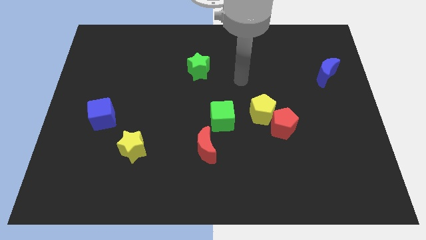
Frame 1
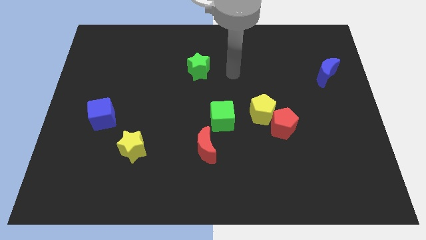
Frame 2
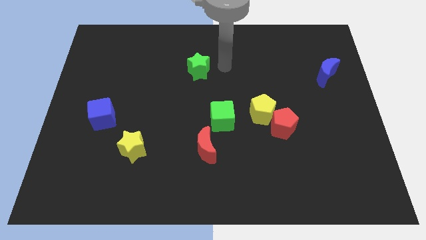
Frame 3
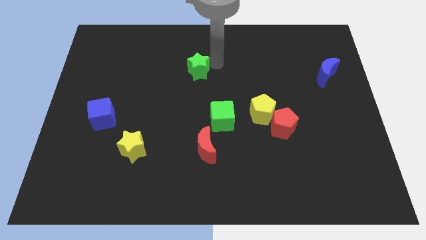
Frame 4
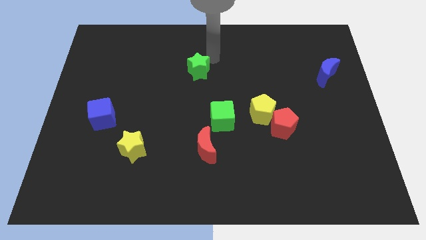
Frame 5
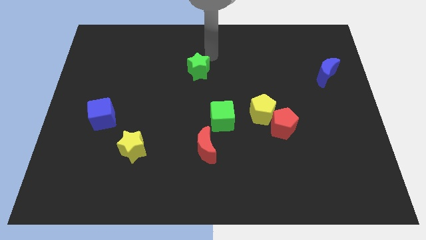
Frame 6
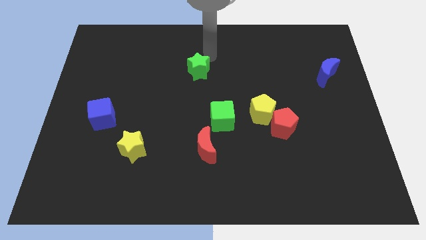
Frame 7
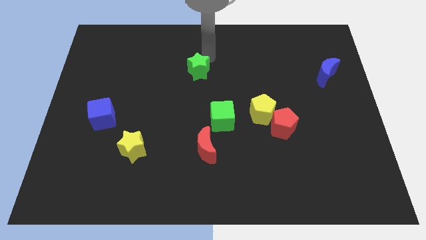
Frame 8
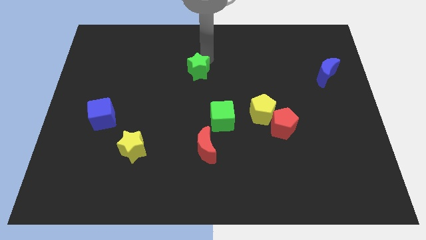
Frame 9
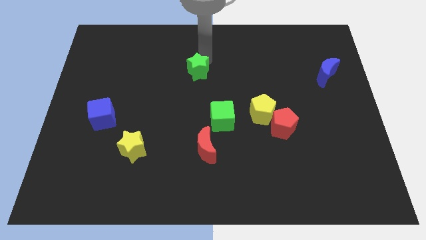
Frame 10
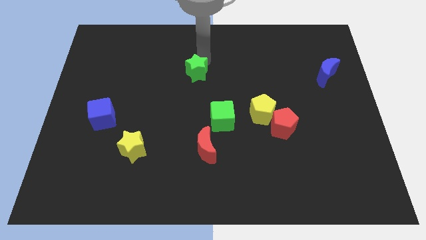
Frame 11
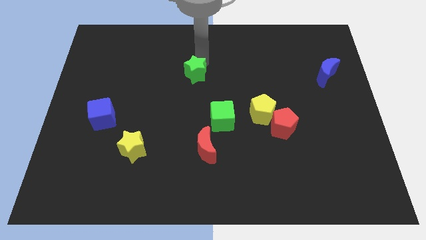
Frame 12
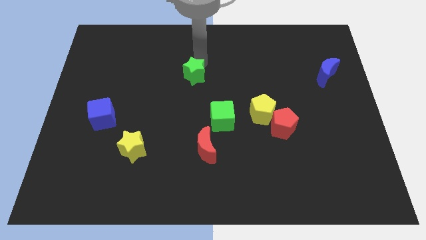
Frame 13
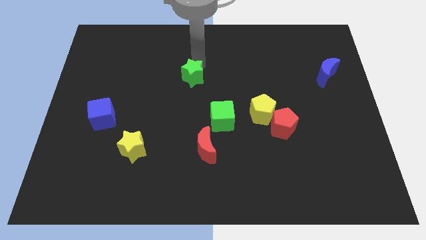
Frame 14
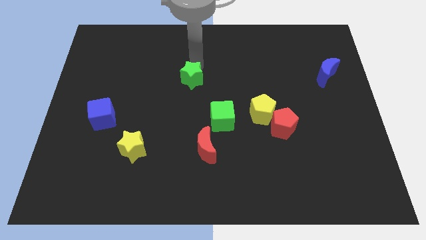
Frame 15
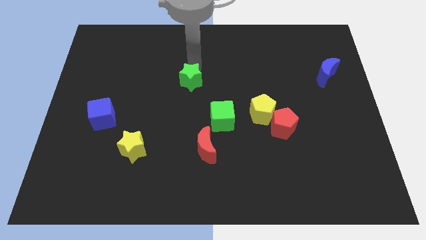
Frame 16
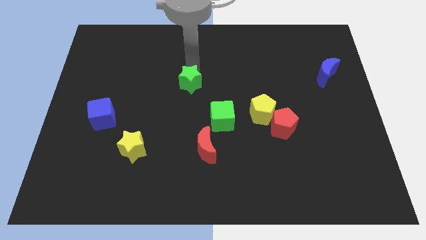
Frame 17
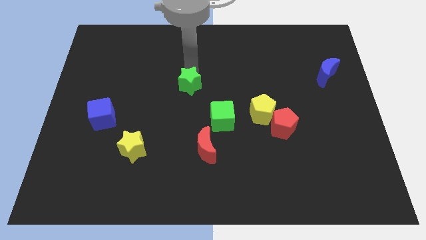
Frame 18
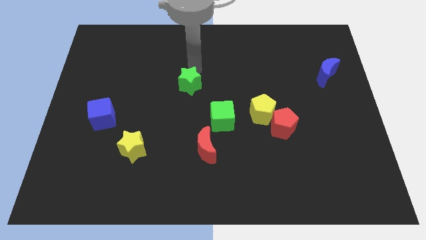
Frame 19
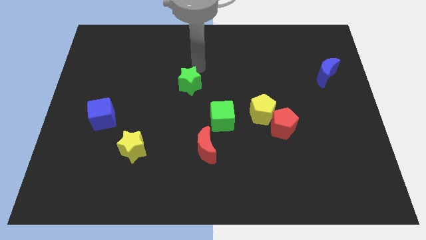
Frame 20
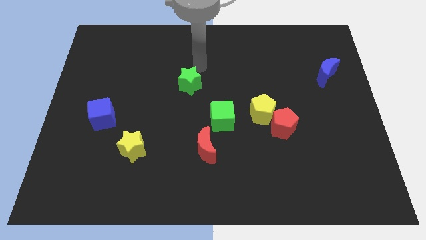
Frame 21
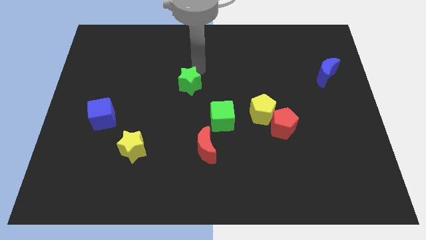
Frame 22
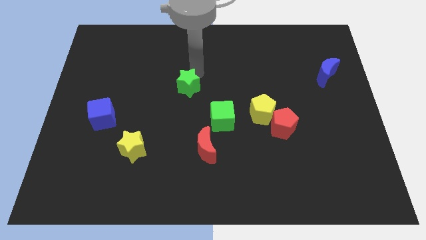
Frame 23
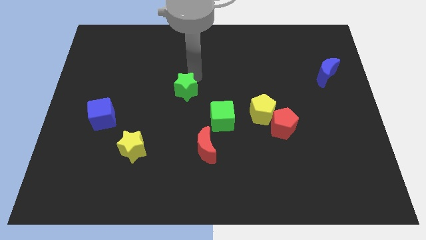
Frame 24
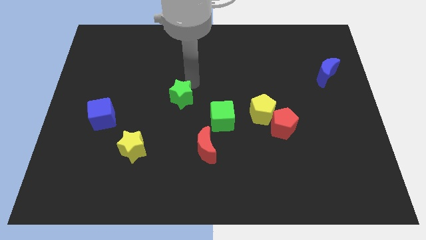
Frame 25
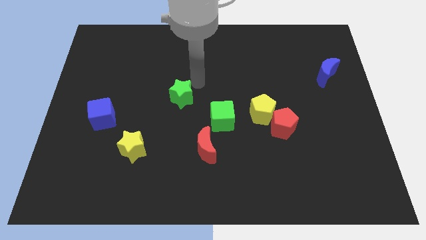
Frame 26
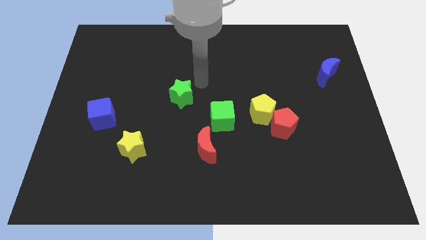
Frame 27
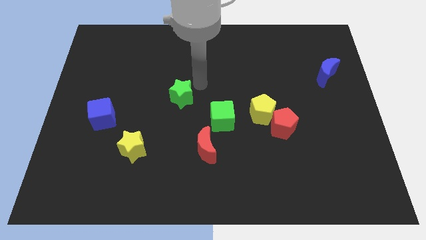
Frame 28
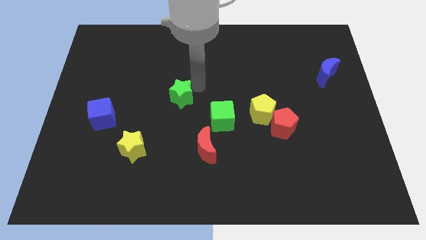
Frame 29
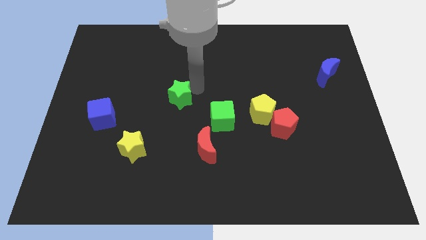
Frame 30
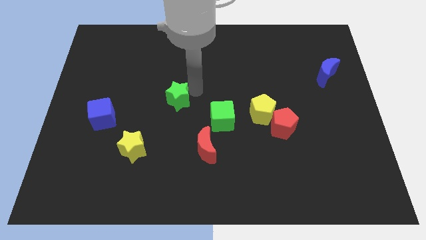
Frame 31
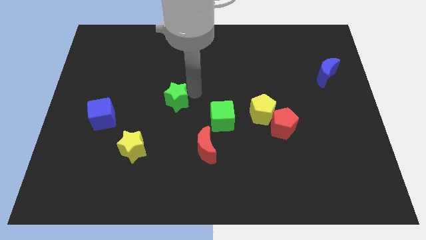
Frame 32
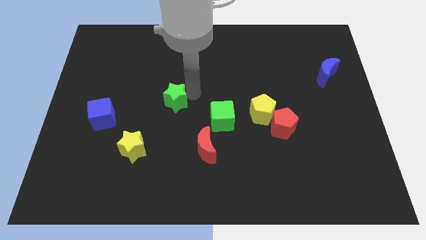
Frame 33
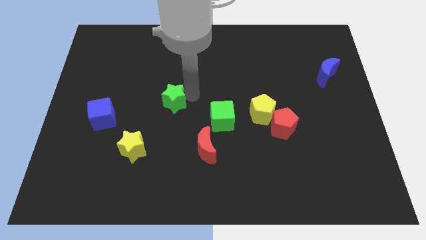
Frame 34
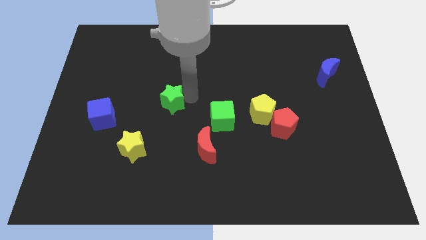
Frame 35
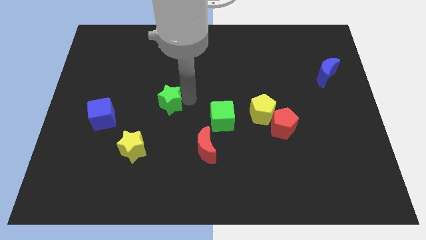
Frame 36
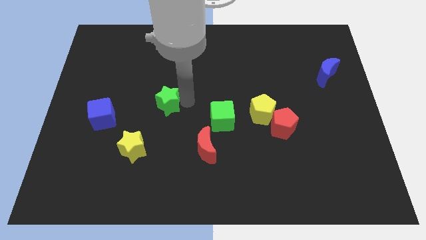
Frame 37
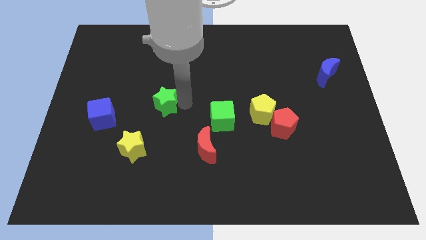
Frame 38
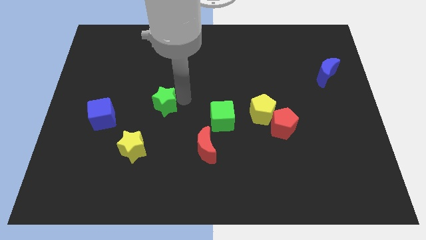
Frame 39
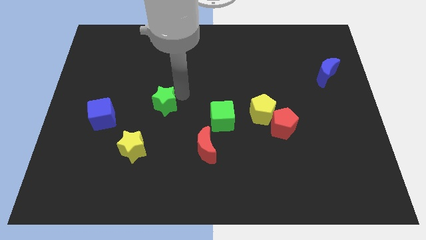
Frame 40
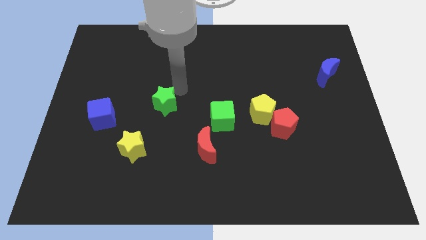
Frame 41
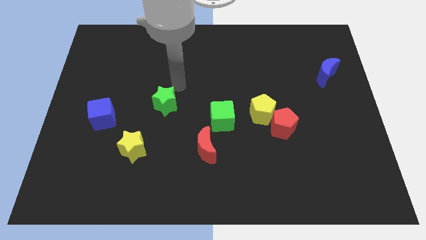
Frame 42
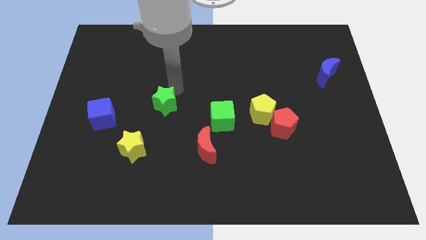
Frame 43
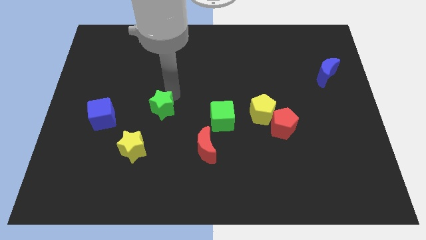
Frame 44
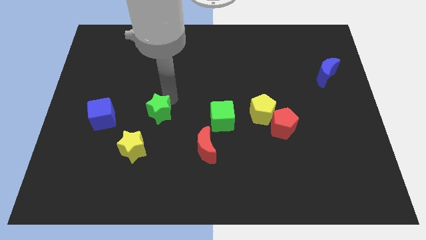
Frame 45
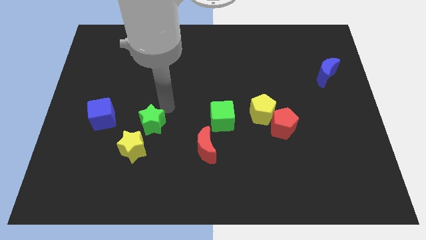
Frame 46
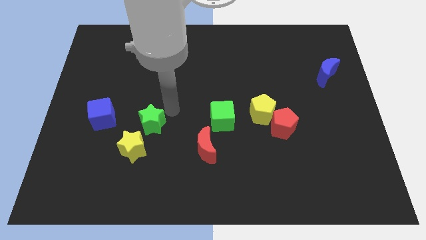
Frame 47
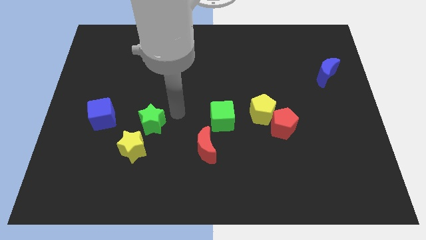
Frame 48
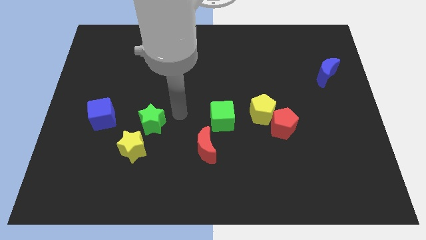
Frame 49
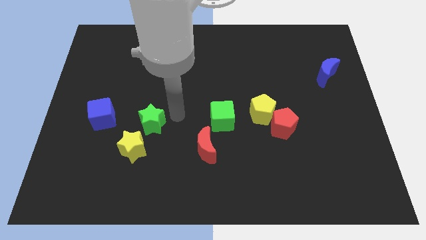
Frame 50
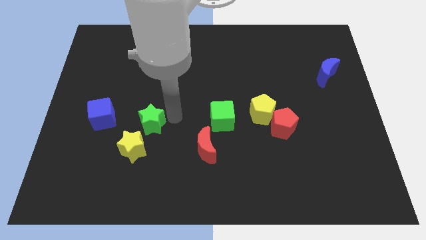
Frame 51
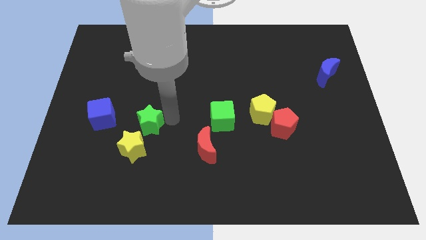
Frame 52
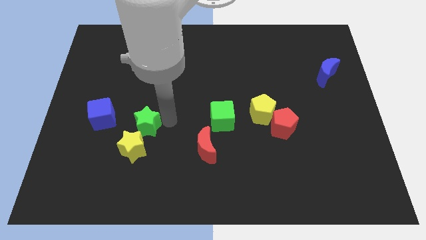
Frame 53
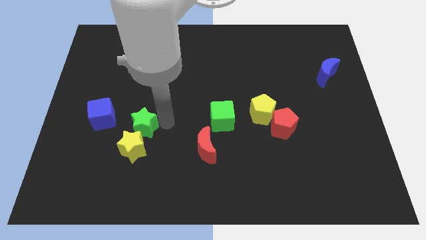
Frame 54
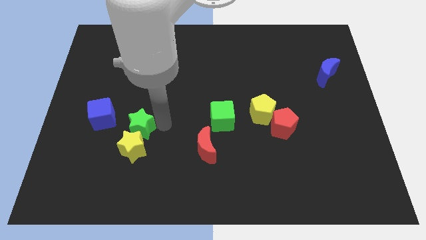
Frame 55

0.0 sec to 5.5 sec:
slide the green star to the bottom right side of the blue cube
